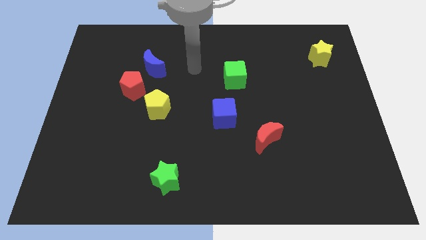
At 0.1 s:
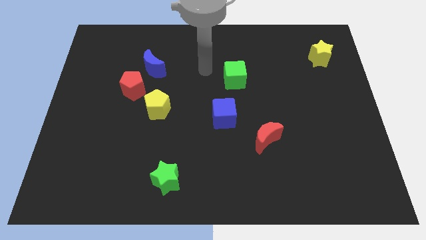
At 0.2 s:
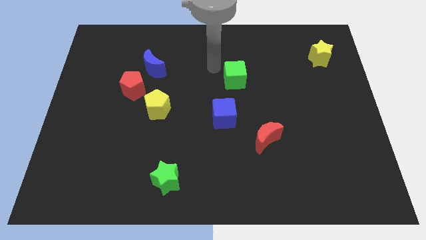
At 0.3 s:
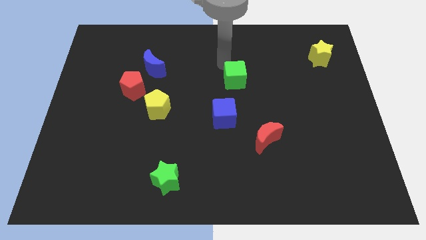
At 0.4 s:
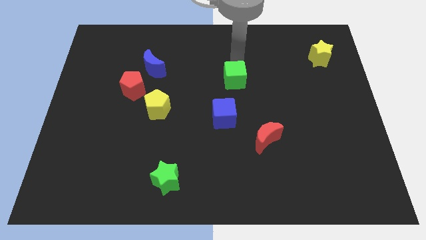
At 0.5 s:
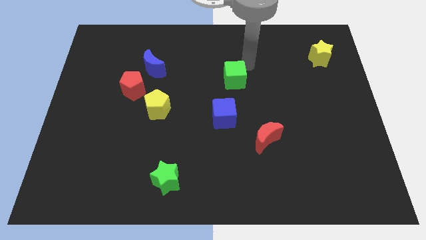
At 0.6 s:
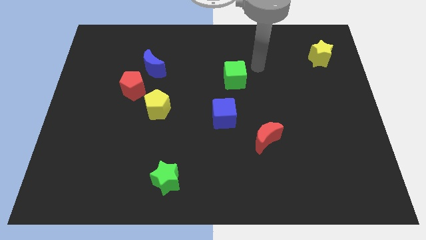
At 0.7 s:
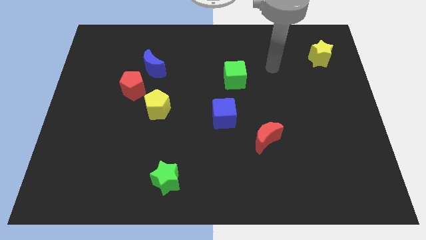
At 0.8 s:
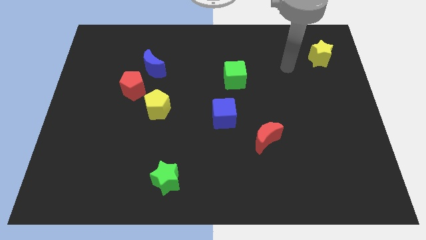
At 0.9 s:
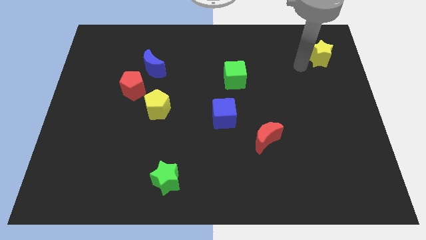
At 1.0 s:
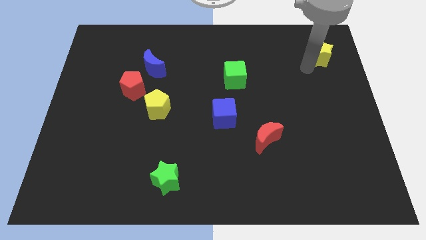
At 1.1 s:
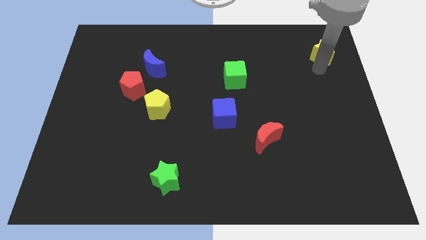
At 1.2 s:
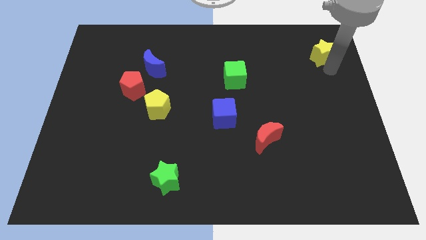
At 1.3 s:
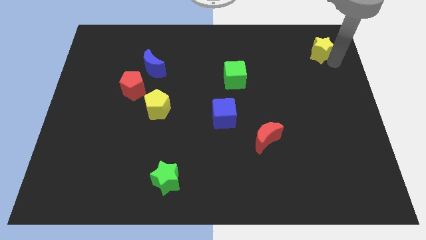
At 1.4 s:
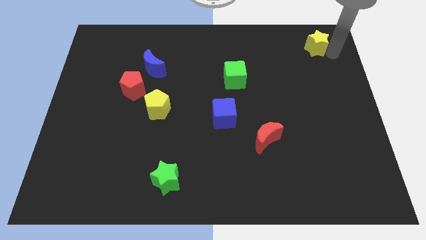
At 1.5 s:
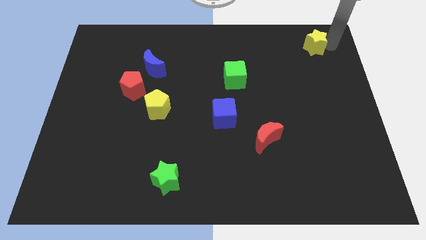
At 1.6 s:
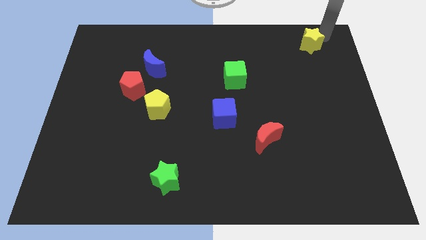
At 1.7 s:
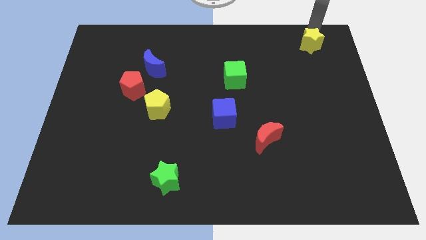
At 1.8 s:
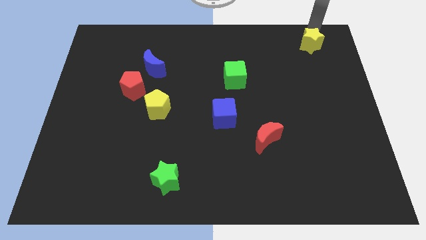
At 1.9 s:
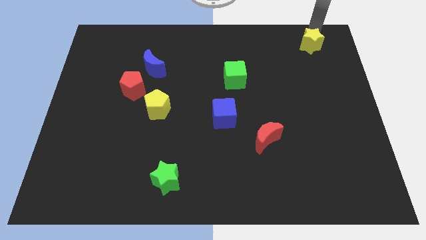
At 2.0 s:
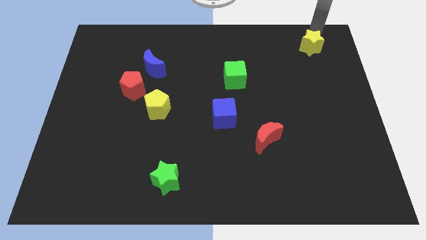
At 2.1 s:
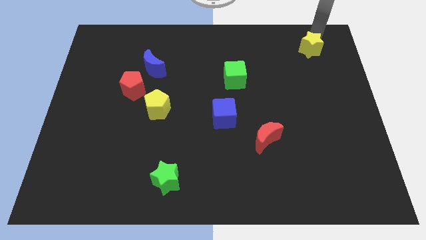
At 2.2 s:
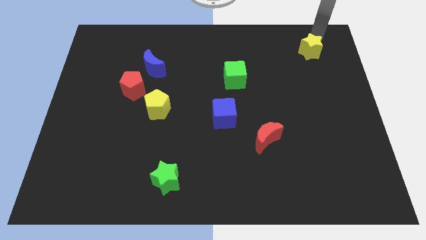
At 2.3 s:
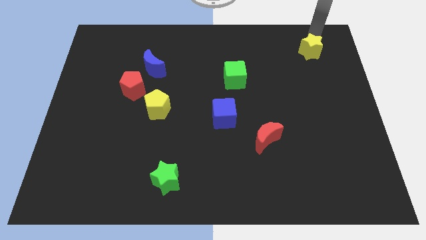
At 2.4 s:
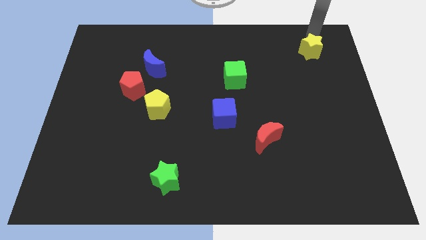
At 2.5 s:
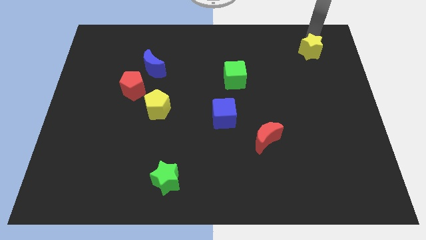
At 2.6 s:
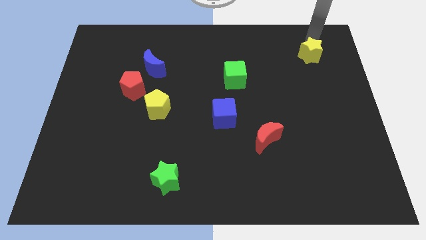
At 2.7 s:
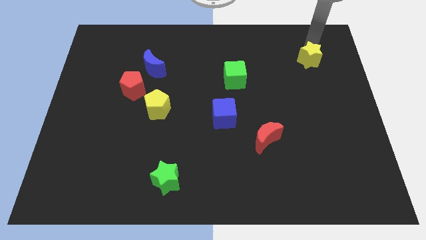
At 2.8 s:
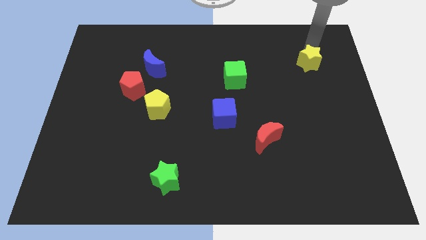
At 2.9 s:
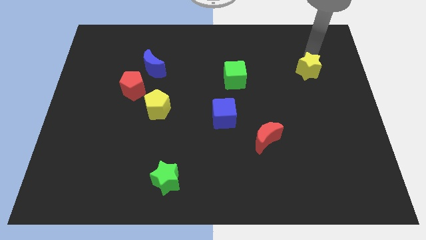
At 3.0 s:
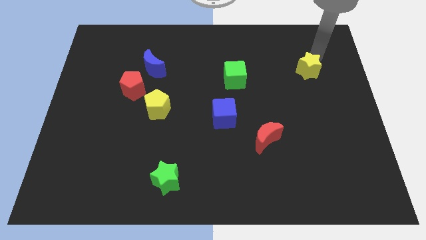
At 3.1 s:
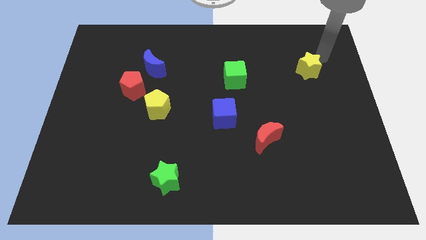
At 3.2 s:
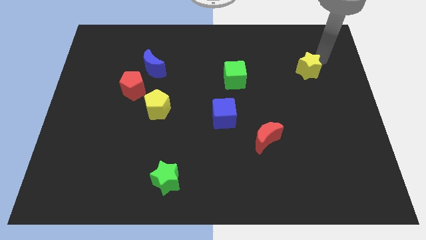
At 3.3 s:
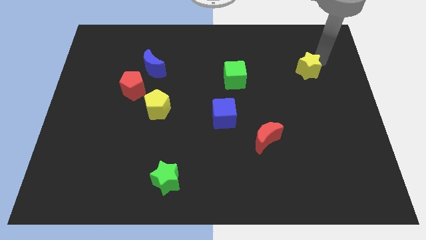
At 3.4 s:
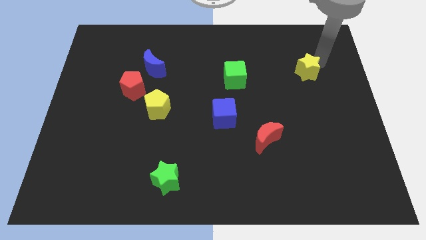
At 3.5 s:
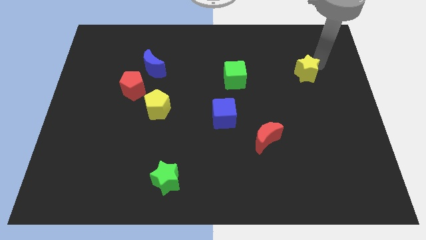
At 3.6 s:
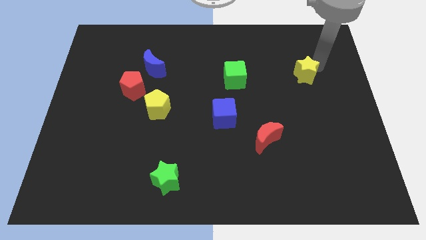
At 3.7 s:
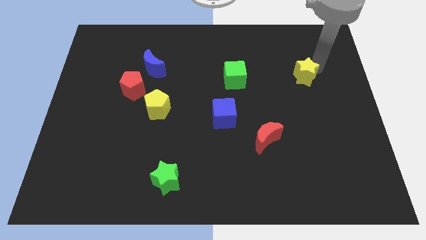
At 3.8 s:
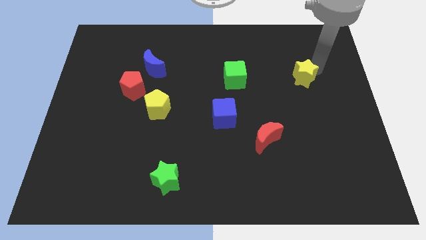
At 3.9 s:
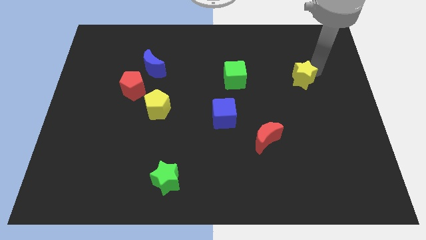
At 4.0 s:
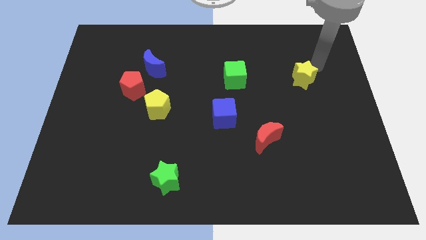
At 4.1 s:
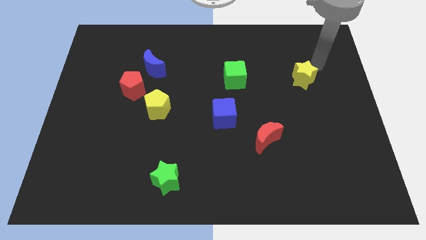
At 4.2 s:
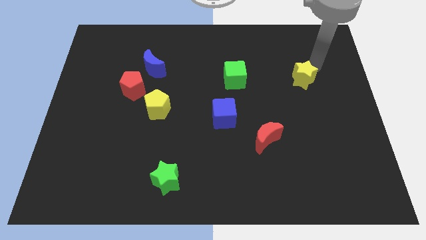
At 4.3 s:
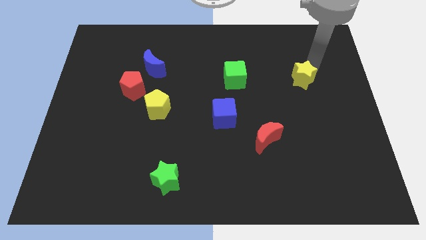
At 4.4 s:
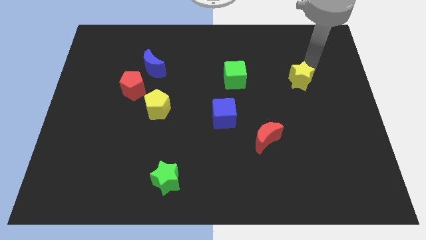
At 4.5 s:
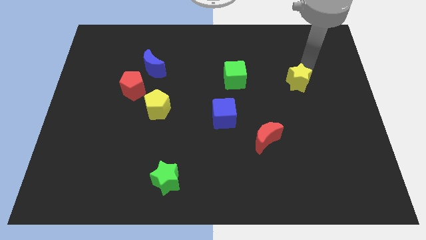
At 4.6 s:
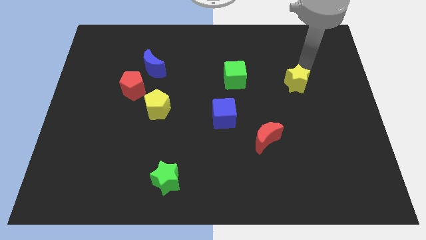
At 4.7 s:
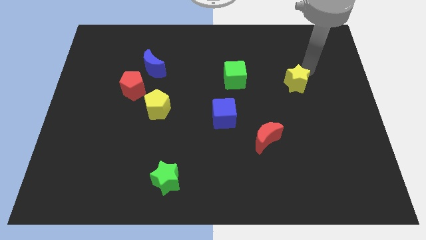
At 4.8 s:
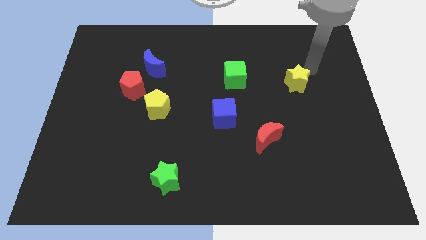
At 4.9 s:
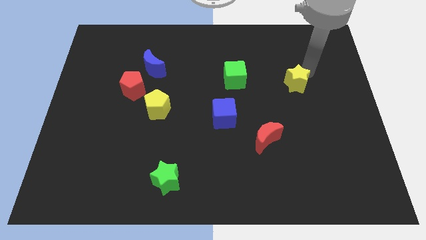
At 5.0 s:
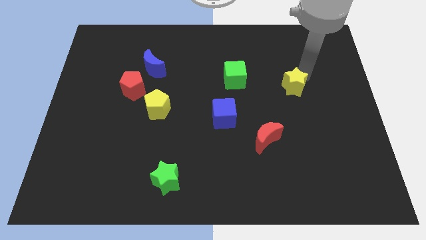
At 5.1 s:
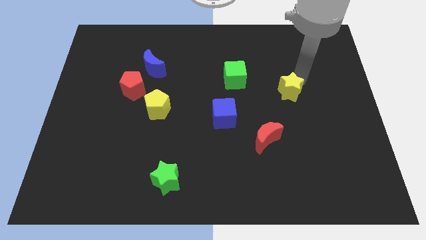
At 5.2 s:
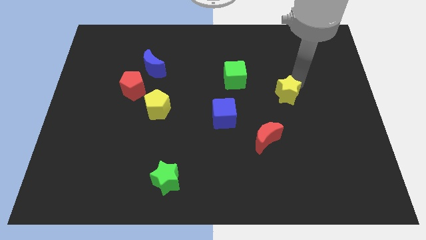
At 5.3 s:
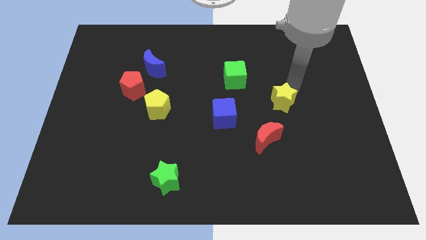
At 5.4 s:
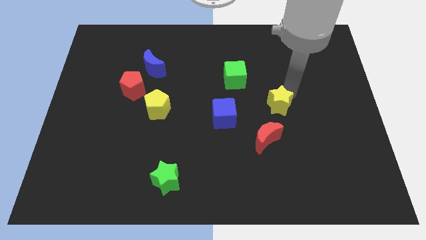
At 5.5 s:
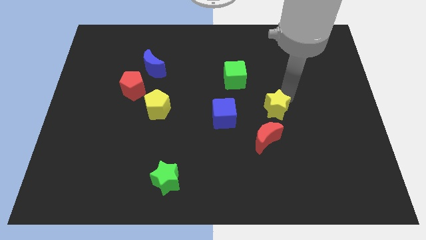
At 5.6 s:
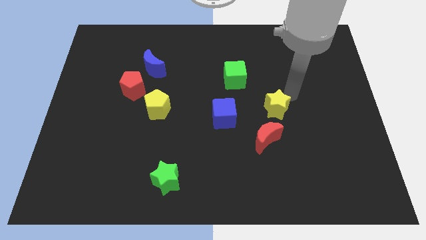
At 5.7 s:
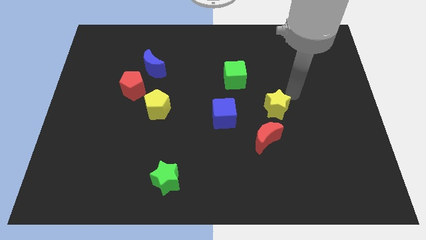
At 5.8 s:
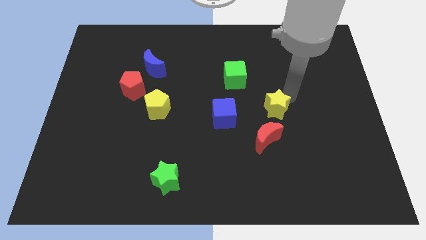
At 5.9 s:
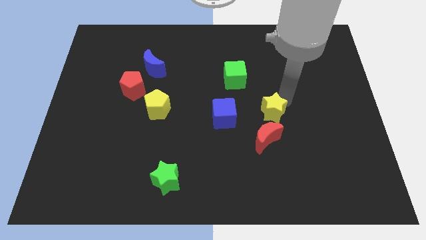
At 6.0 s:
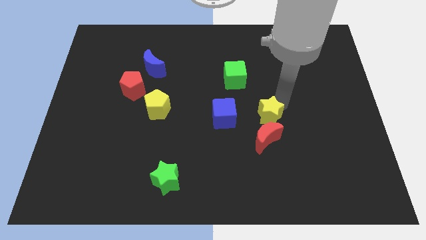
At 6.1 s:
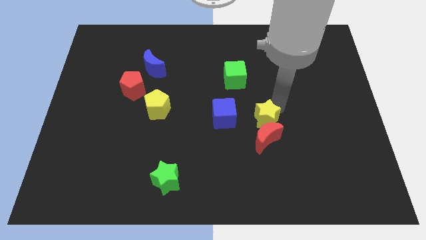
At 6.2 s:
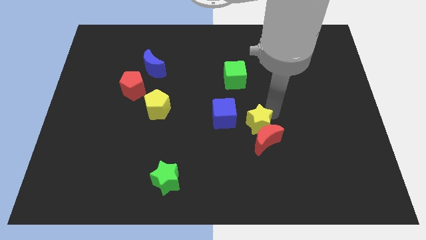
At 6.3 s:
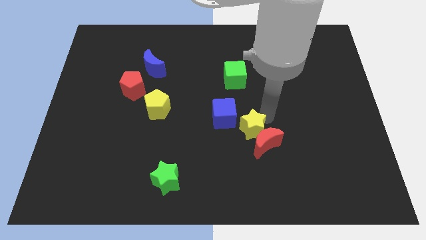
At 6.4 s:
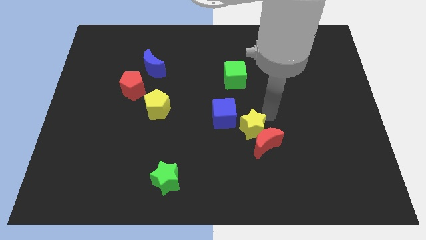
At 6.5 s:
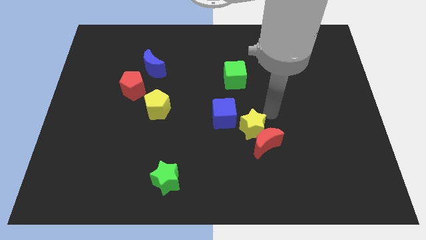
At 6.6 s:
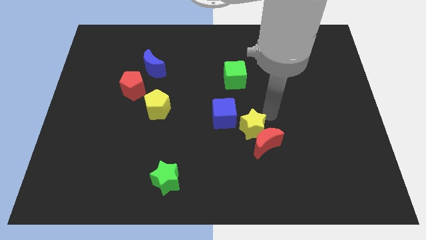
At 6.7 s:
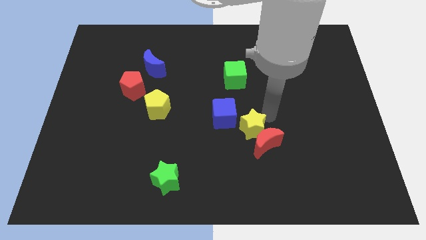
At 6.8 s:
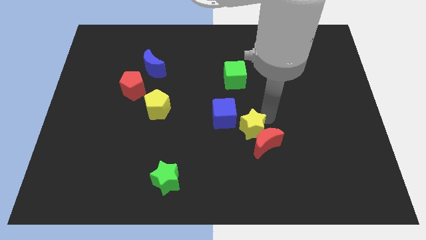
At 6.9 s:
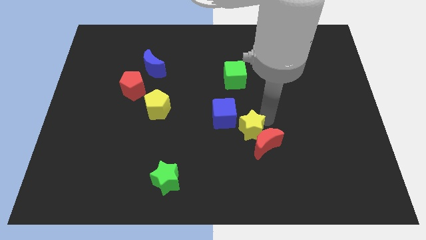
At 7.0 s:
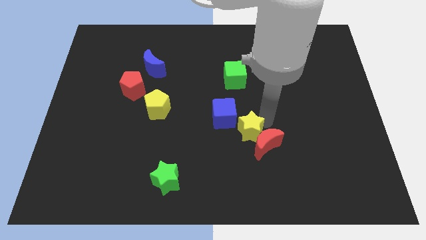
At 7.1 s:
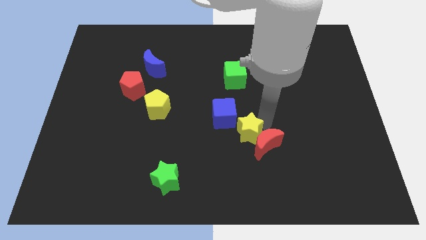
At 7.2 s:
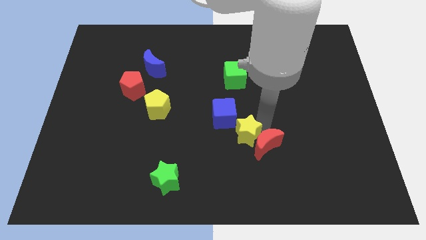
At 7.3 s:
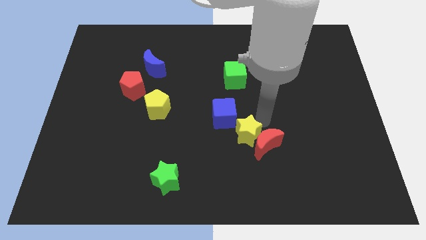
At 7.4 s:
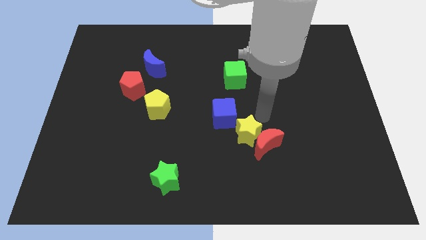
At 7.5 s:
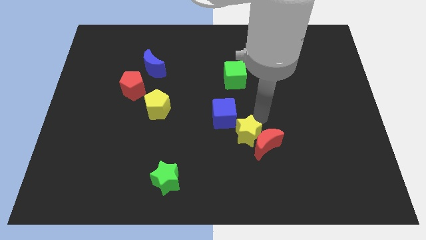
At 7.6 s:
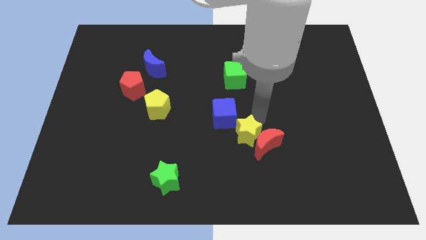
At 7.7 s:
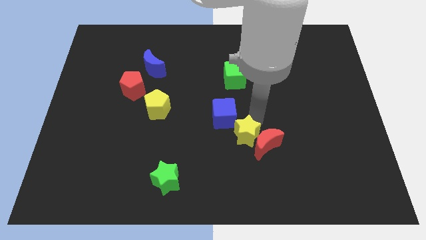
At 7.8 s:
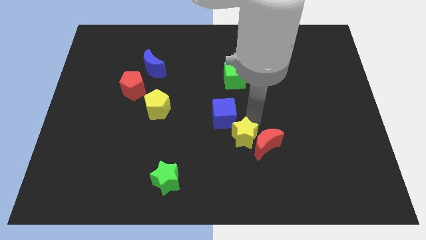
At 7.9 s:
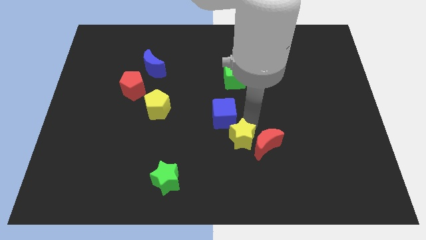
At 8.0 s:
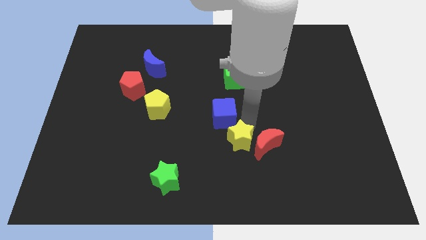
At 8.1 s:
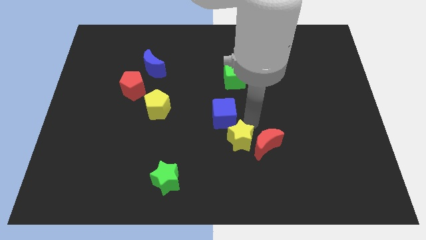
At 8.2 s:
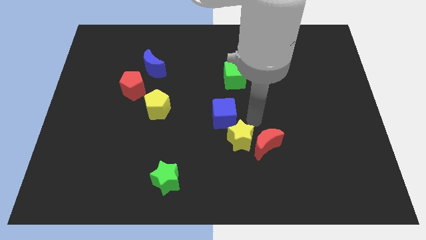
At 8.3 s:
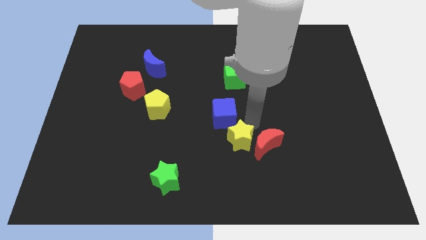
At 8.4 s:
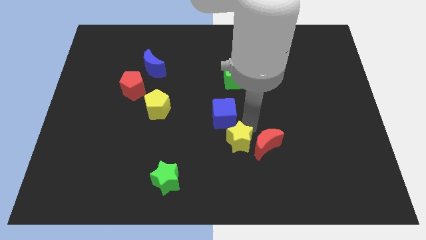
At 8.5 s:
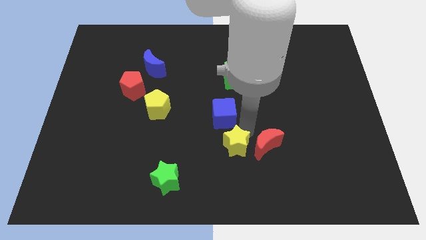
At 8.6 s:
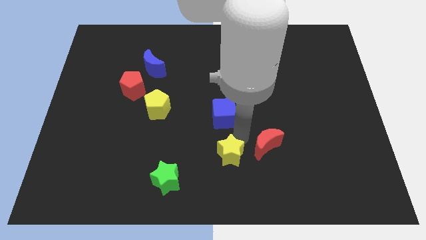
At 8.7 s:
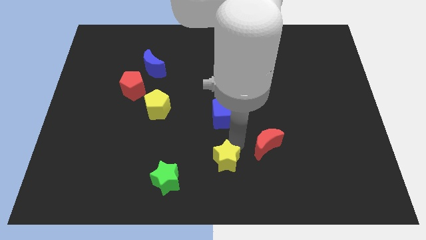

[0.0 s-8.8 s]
slide the yellow star to the right side of the green star
